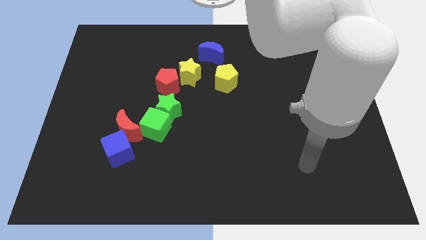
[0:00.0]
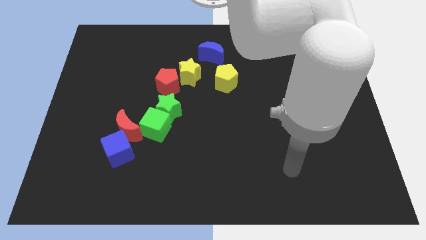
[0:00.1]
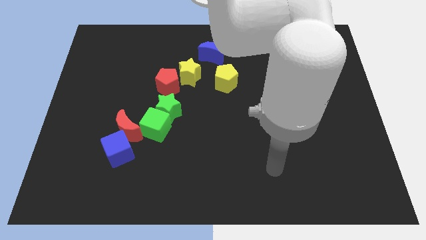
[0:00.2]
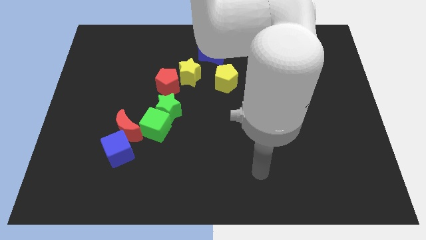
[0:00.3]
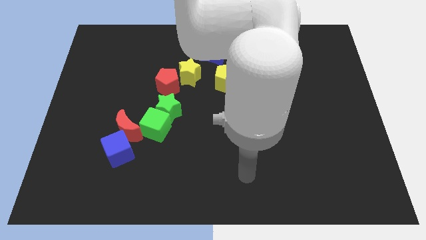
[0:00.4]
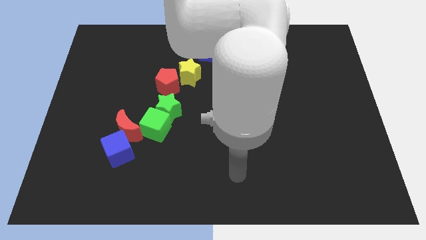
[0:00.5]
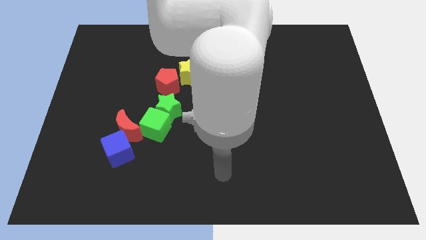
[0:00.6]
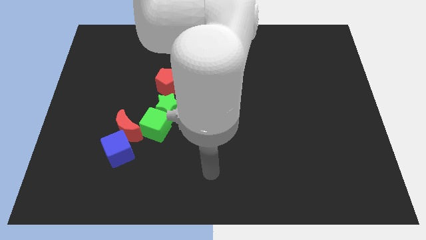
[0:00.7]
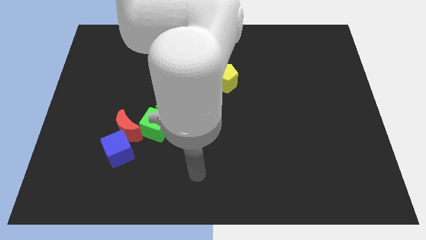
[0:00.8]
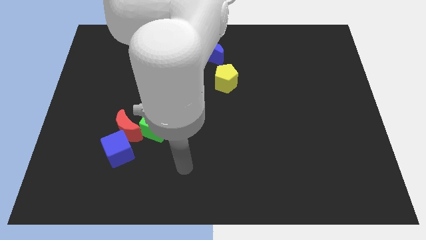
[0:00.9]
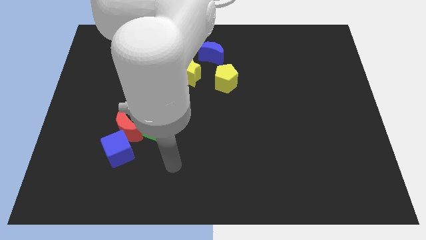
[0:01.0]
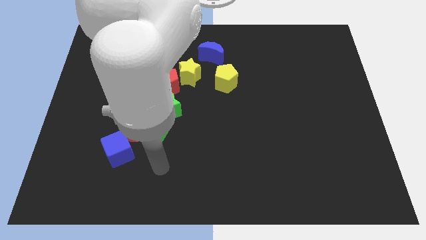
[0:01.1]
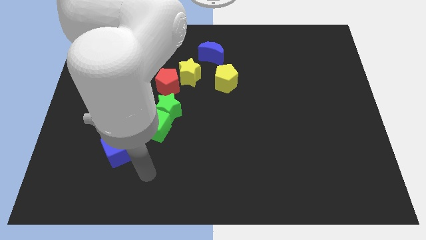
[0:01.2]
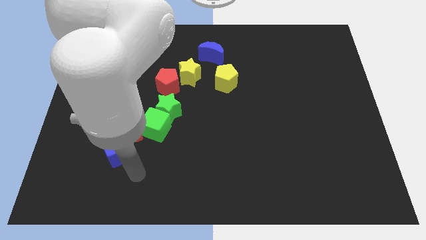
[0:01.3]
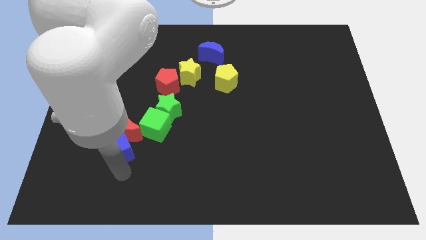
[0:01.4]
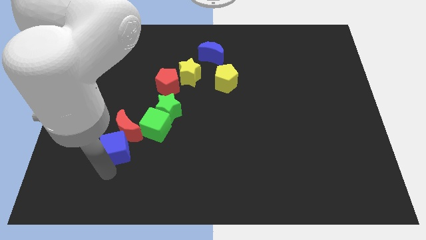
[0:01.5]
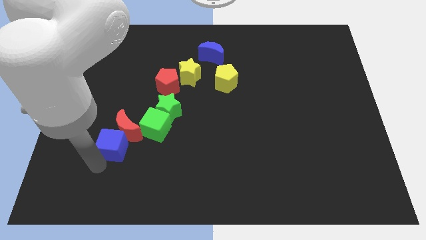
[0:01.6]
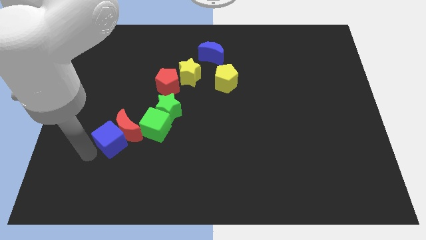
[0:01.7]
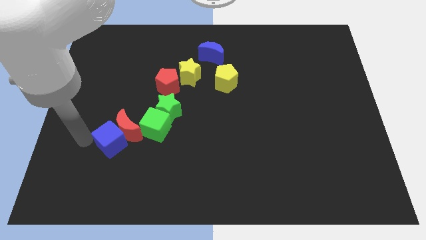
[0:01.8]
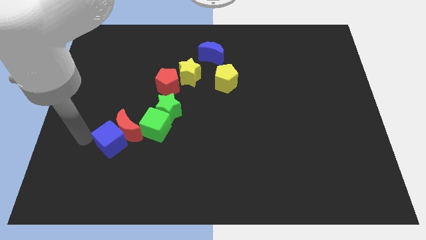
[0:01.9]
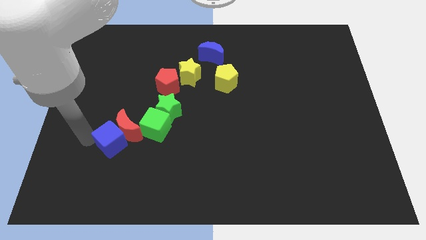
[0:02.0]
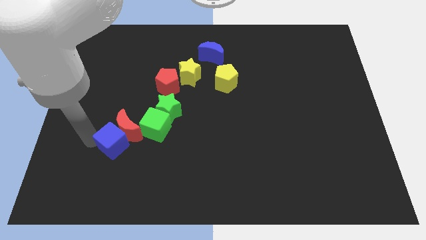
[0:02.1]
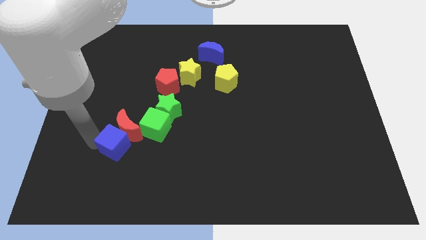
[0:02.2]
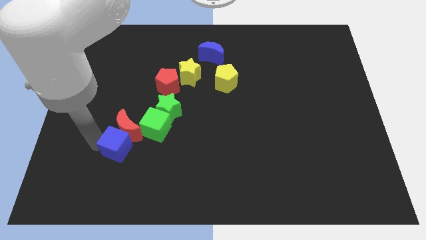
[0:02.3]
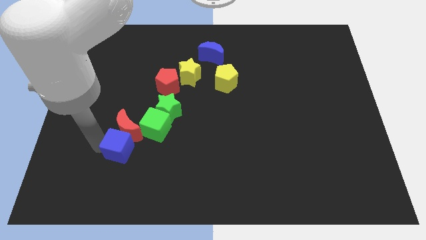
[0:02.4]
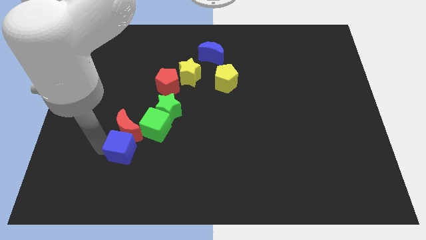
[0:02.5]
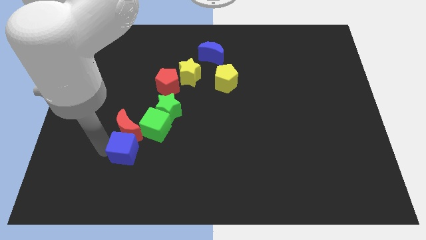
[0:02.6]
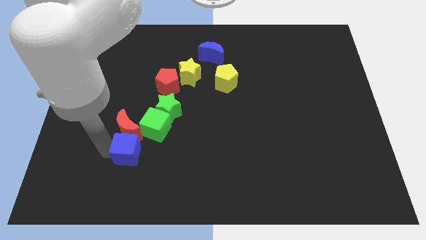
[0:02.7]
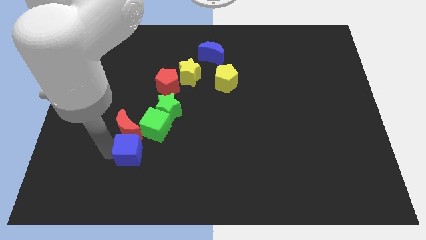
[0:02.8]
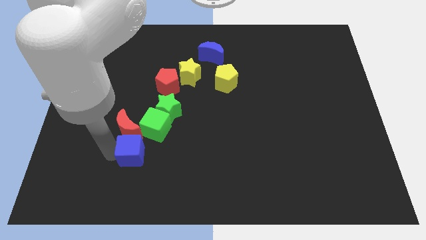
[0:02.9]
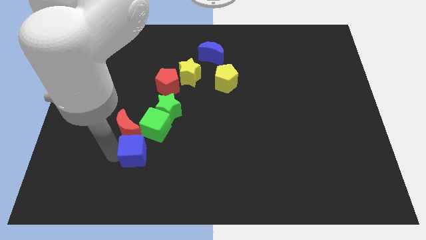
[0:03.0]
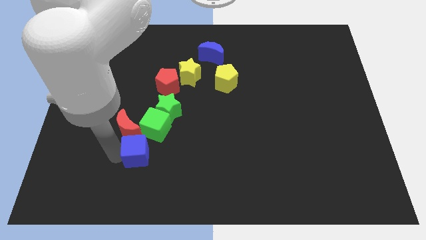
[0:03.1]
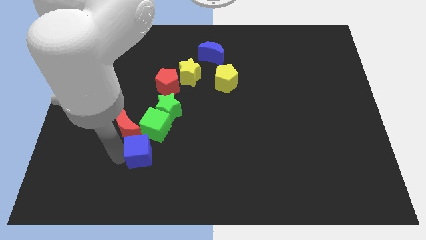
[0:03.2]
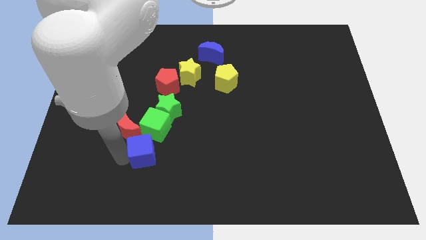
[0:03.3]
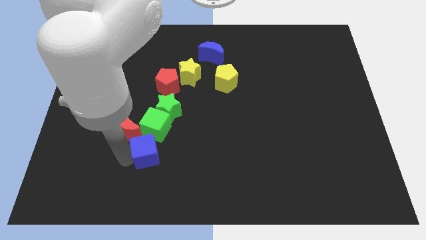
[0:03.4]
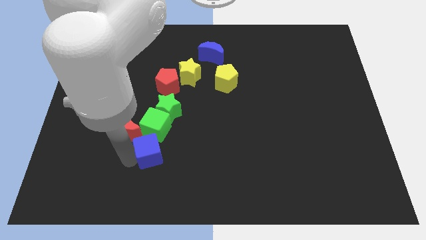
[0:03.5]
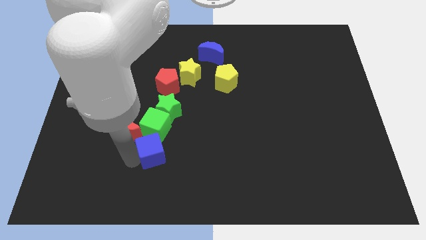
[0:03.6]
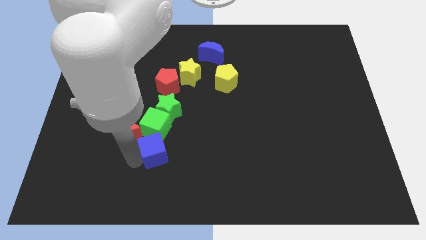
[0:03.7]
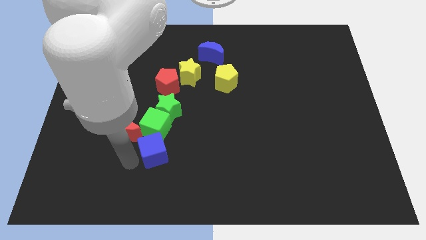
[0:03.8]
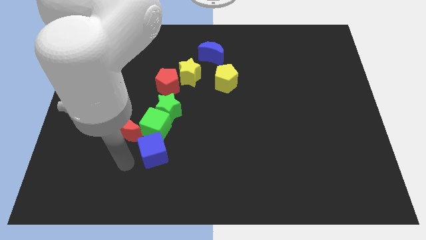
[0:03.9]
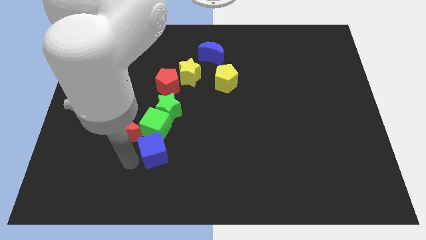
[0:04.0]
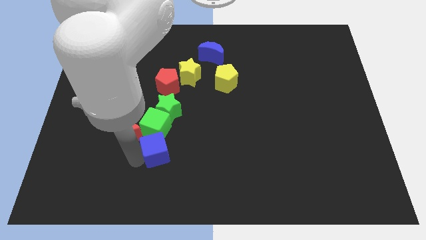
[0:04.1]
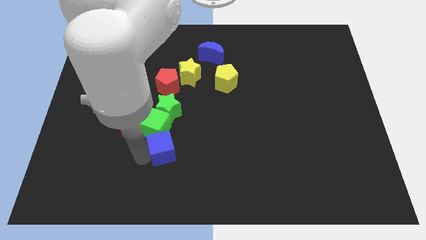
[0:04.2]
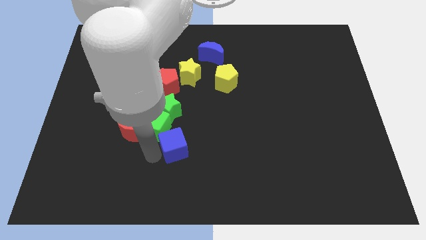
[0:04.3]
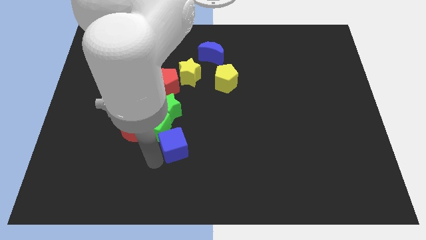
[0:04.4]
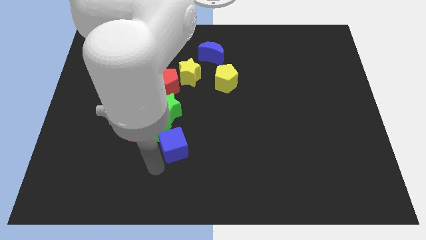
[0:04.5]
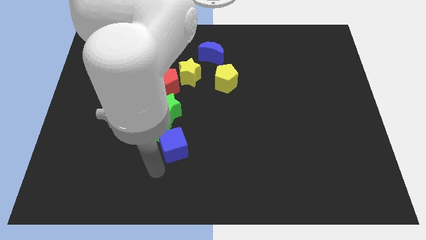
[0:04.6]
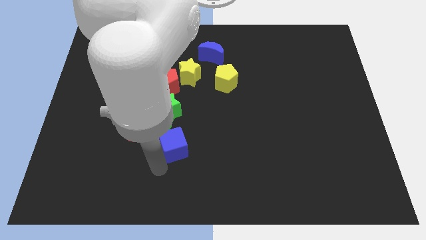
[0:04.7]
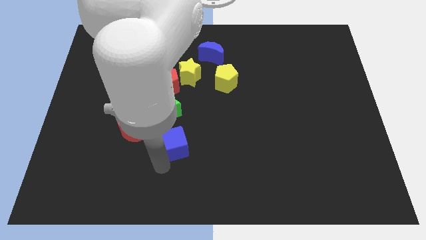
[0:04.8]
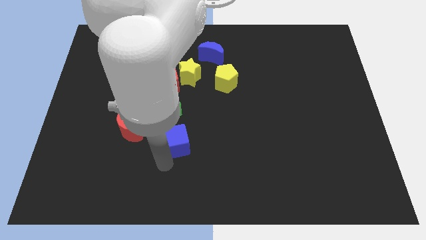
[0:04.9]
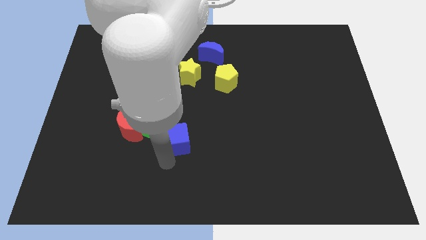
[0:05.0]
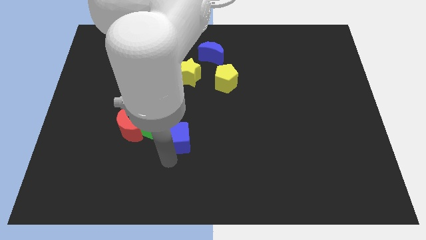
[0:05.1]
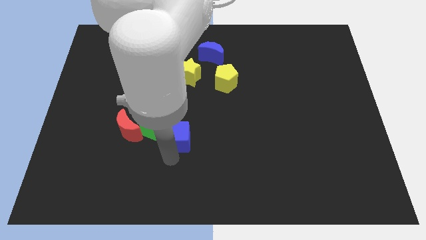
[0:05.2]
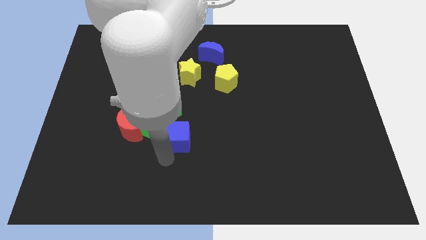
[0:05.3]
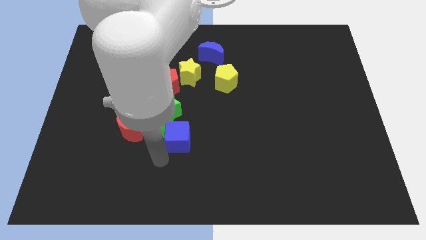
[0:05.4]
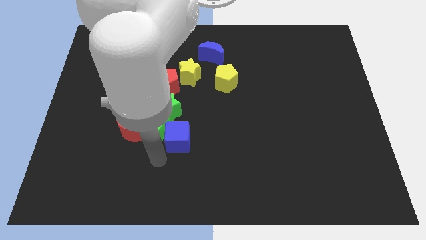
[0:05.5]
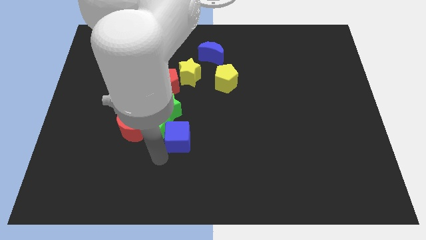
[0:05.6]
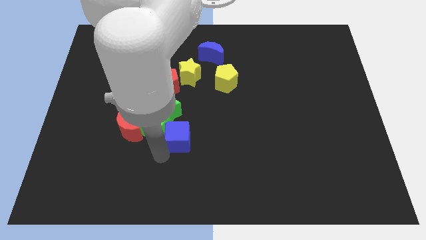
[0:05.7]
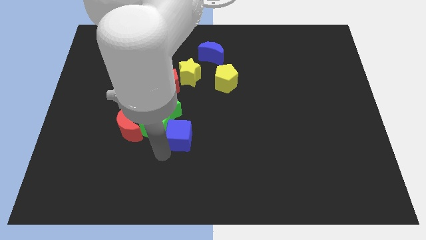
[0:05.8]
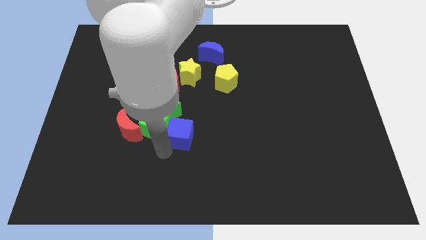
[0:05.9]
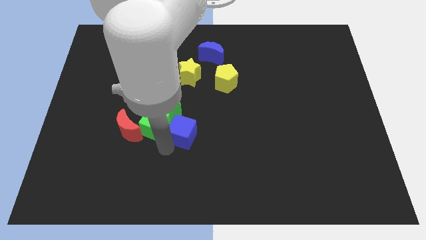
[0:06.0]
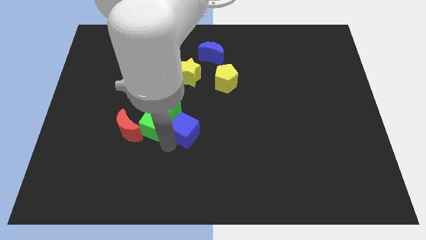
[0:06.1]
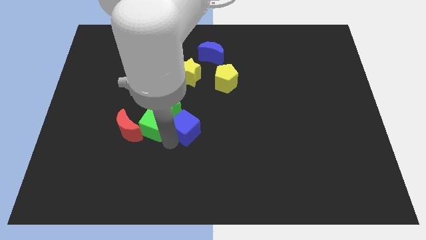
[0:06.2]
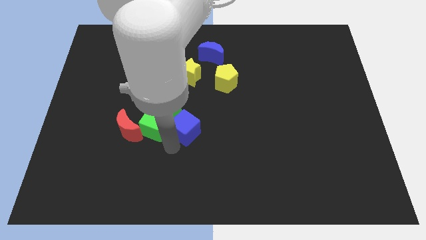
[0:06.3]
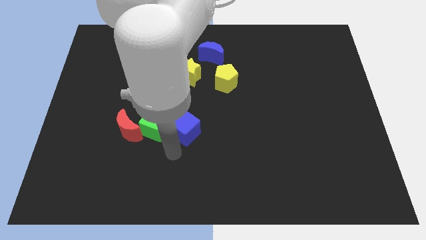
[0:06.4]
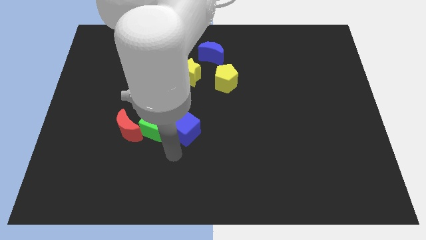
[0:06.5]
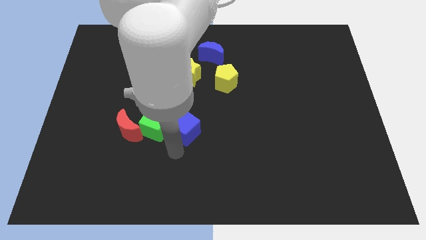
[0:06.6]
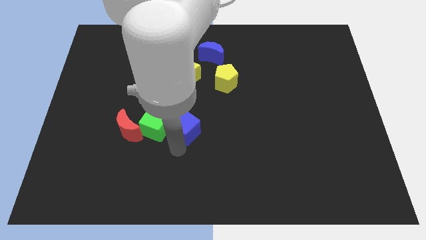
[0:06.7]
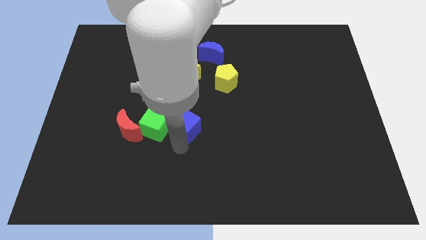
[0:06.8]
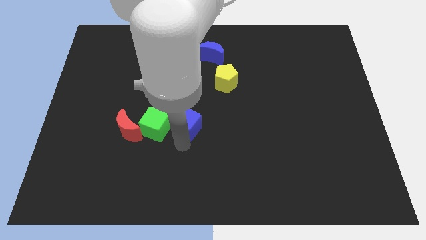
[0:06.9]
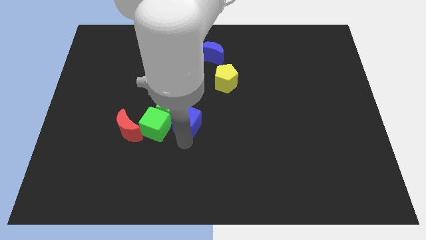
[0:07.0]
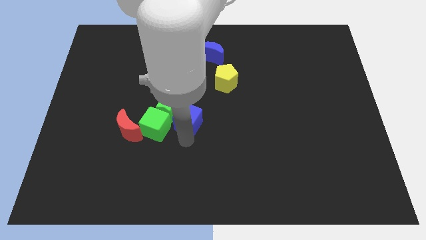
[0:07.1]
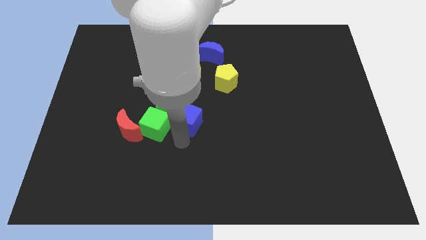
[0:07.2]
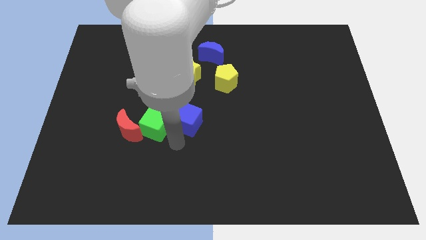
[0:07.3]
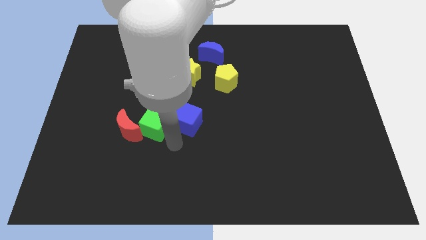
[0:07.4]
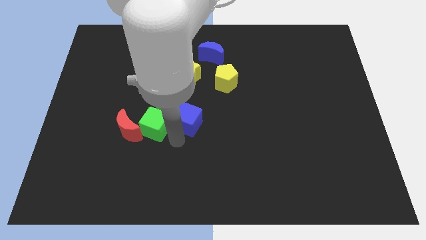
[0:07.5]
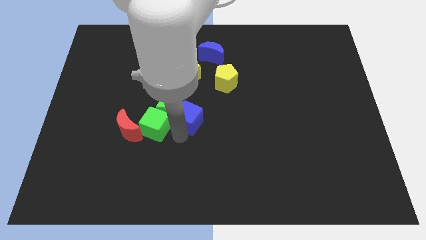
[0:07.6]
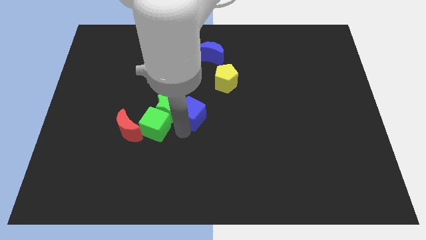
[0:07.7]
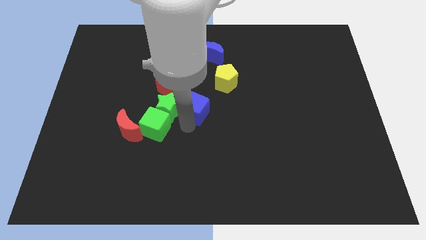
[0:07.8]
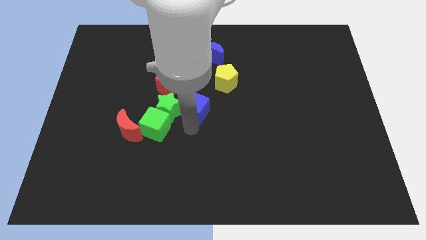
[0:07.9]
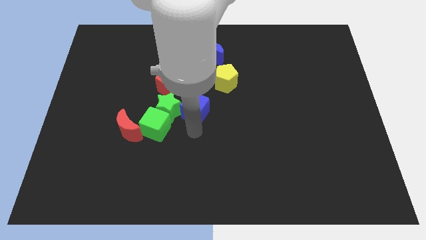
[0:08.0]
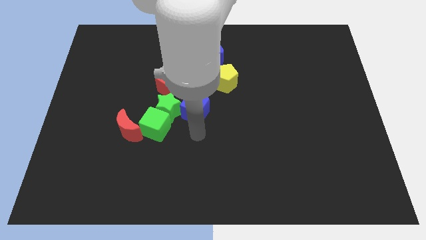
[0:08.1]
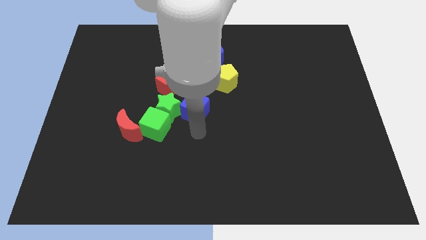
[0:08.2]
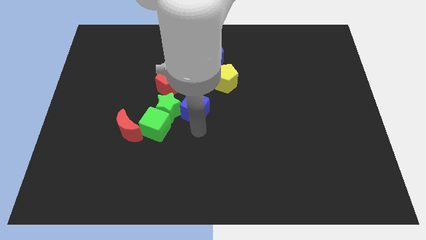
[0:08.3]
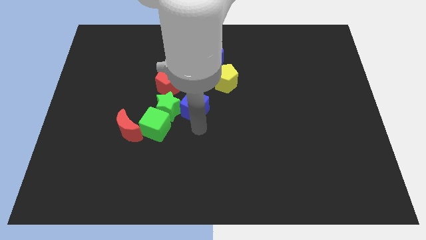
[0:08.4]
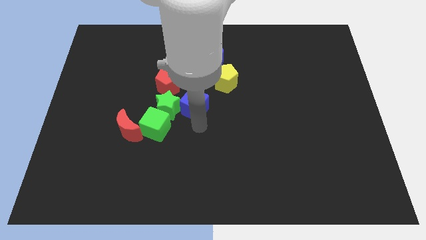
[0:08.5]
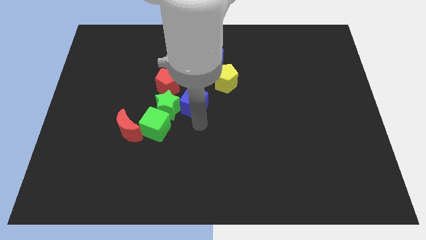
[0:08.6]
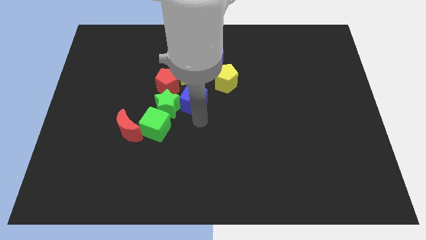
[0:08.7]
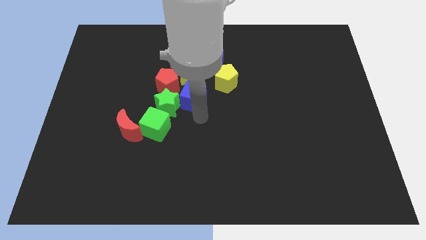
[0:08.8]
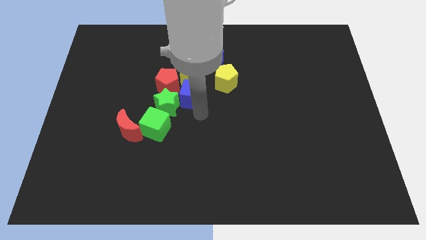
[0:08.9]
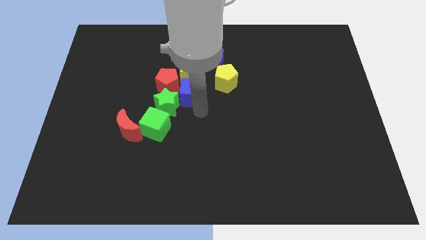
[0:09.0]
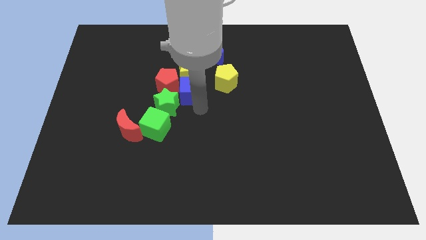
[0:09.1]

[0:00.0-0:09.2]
push the blue cube to the yellow star
